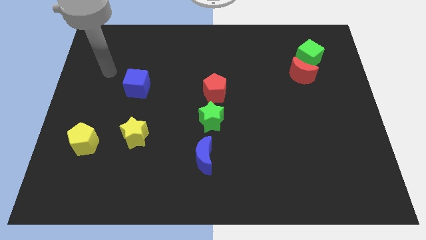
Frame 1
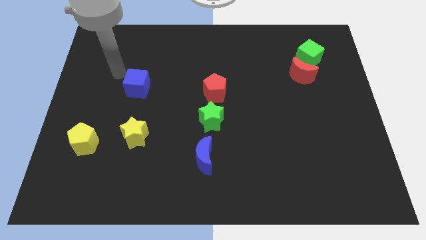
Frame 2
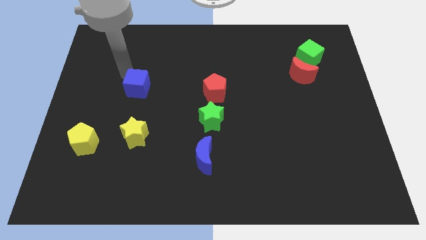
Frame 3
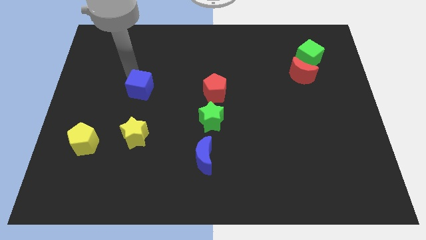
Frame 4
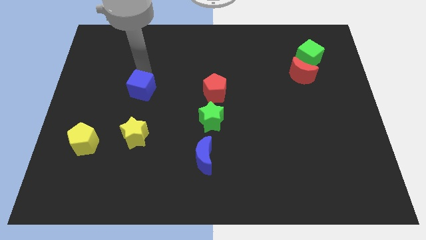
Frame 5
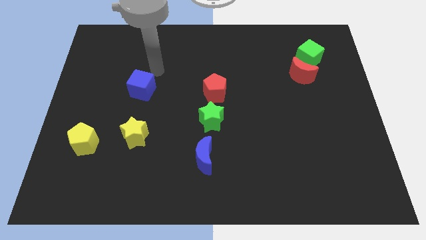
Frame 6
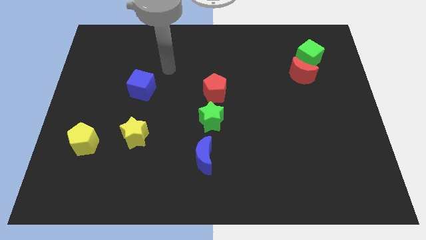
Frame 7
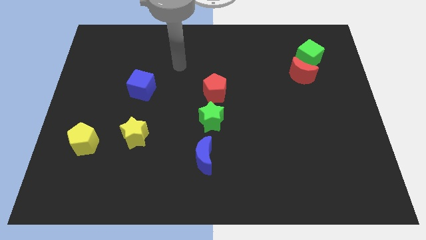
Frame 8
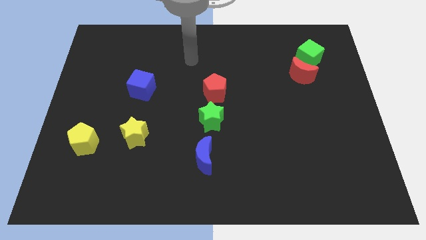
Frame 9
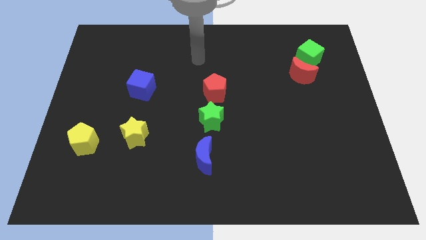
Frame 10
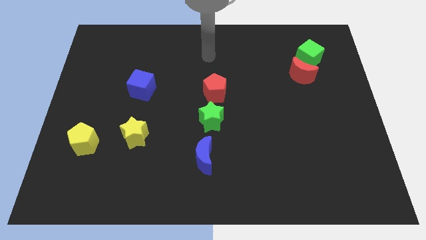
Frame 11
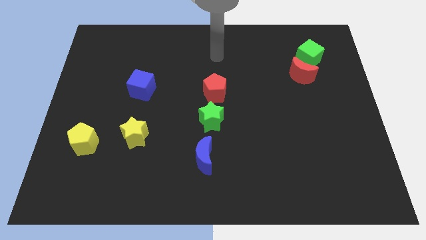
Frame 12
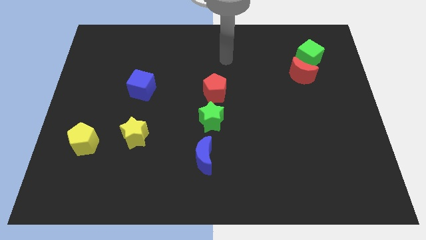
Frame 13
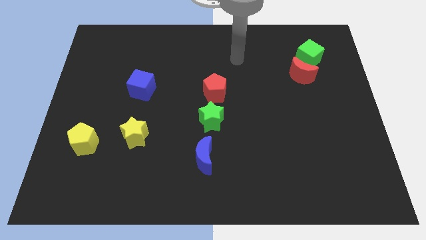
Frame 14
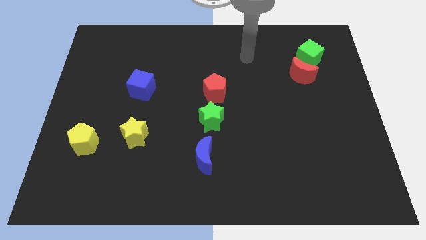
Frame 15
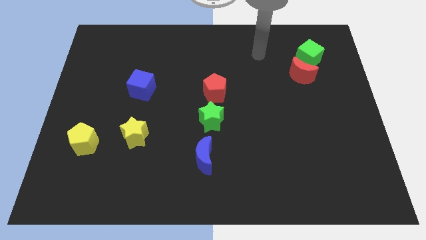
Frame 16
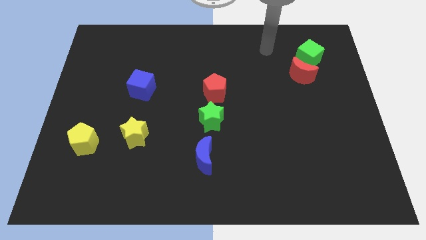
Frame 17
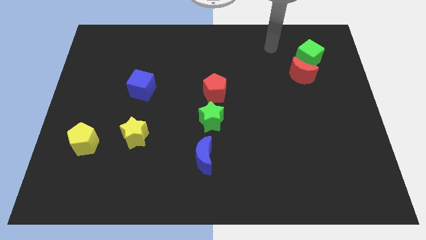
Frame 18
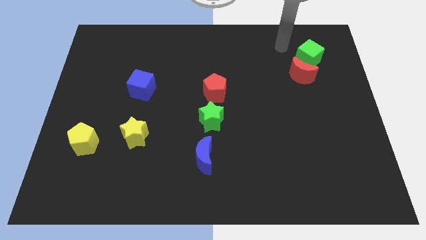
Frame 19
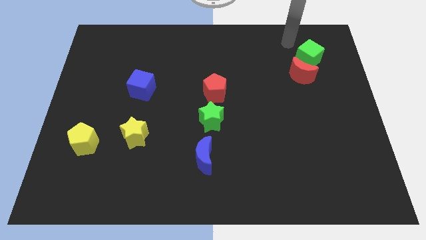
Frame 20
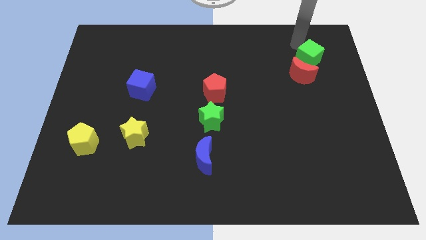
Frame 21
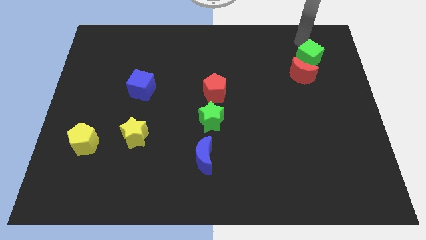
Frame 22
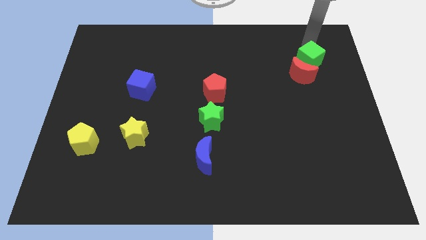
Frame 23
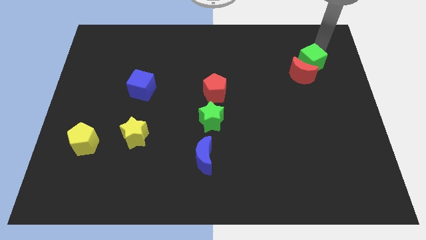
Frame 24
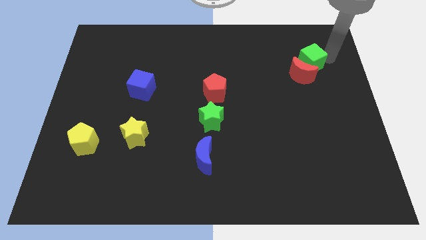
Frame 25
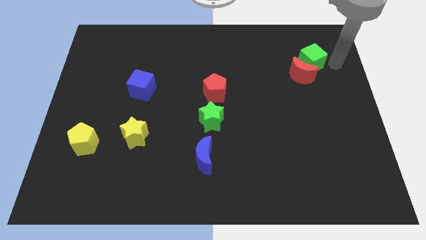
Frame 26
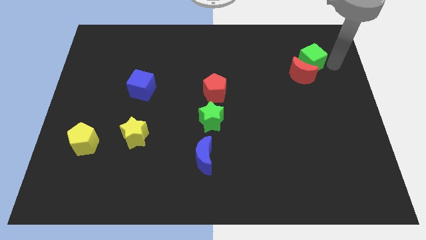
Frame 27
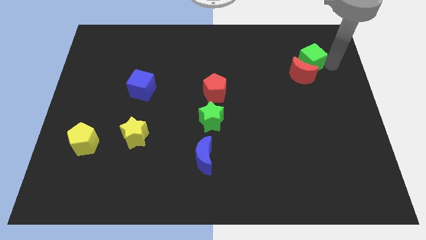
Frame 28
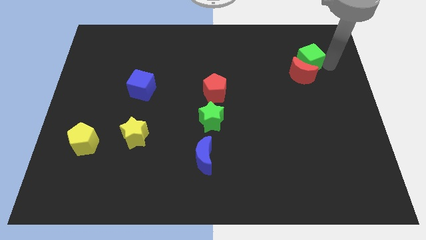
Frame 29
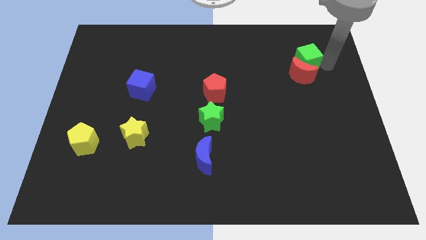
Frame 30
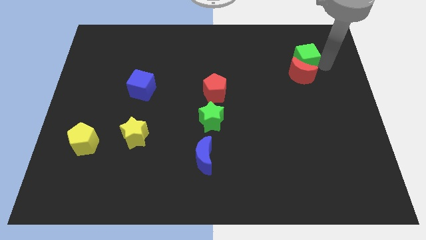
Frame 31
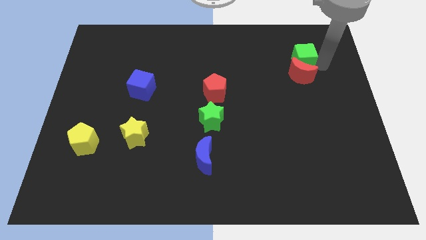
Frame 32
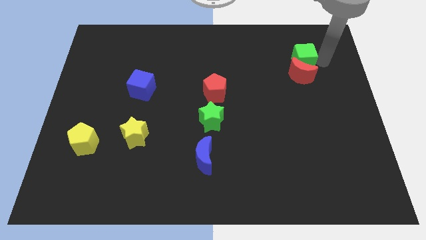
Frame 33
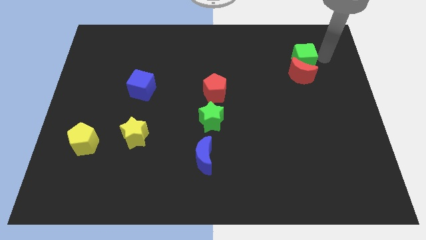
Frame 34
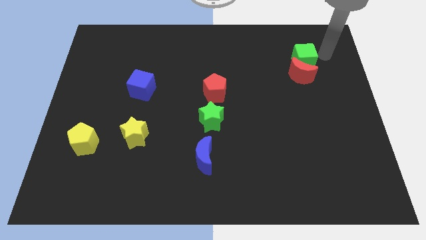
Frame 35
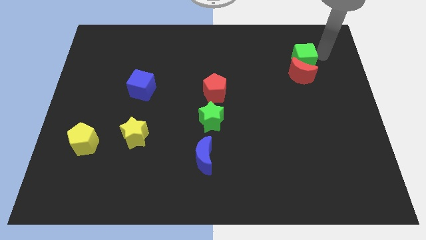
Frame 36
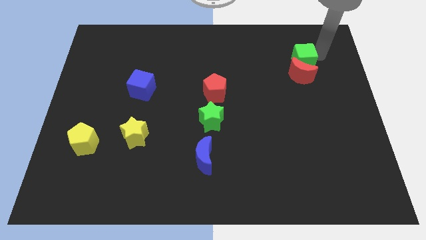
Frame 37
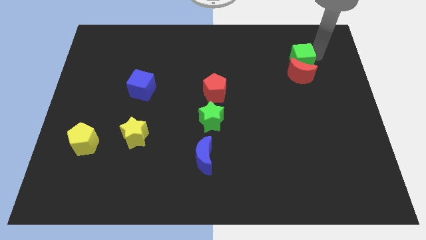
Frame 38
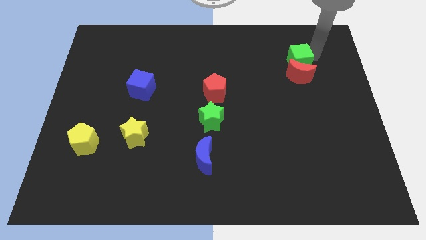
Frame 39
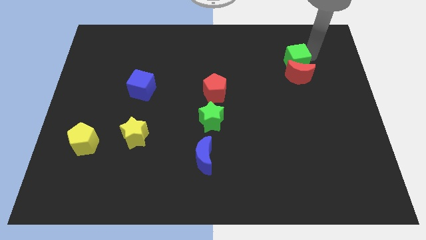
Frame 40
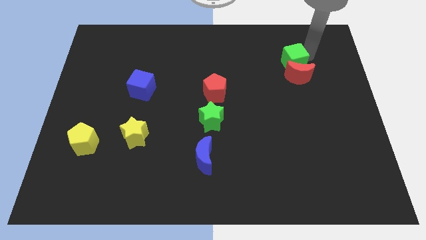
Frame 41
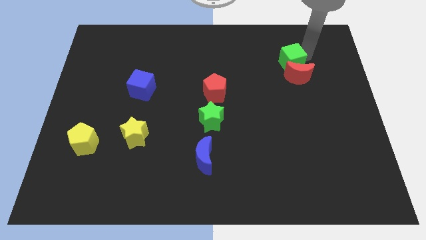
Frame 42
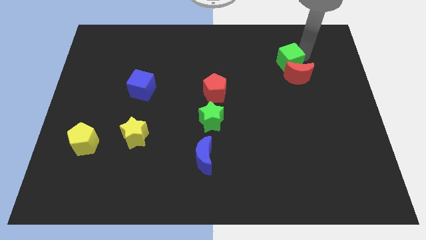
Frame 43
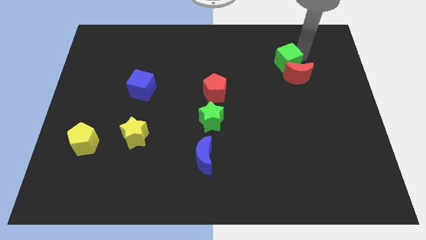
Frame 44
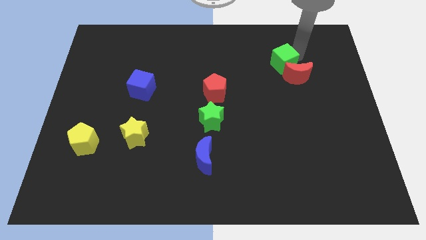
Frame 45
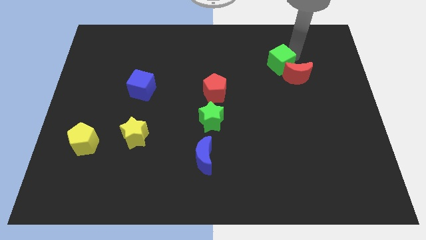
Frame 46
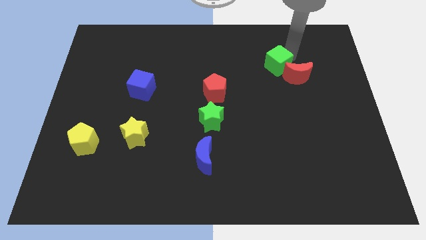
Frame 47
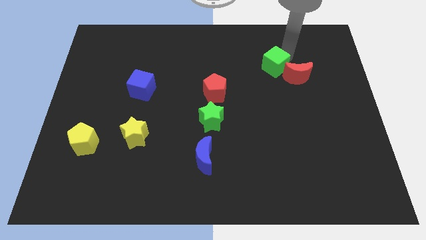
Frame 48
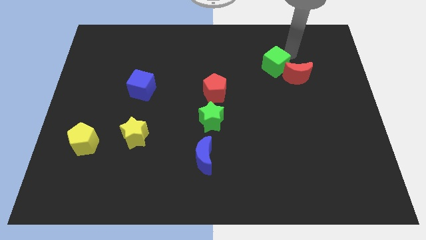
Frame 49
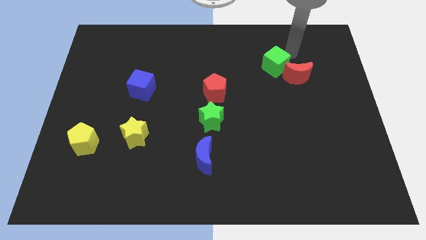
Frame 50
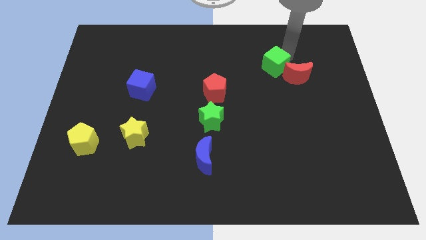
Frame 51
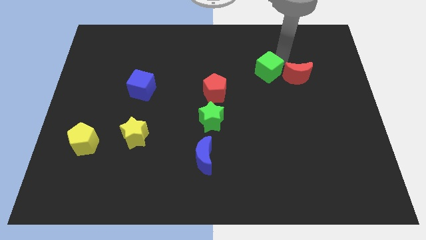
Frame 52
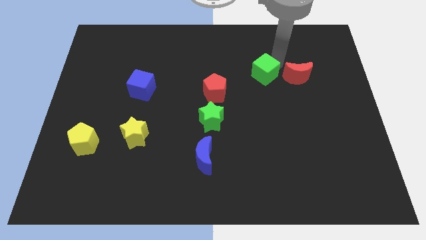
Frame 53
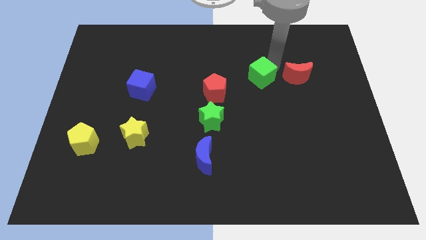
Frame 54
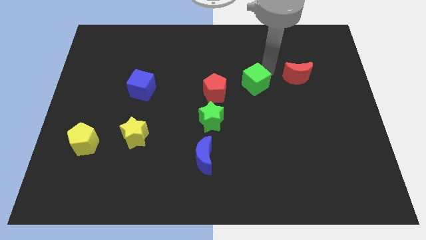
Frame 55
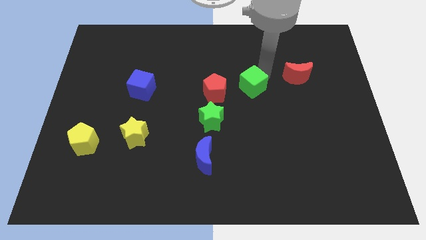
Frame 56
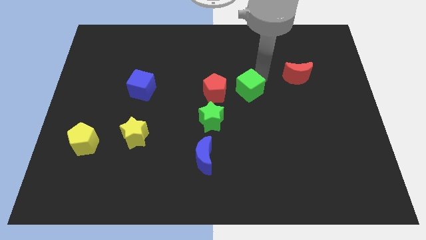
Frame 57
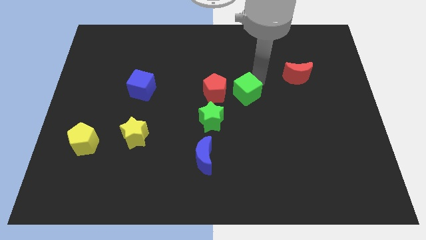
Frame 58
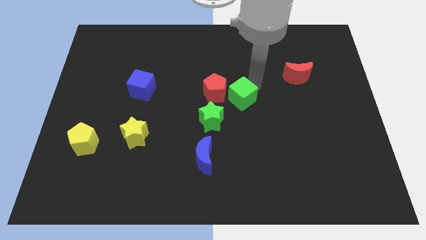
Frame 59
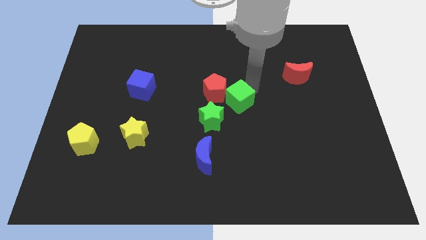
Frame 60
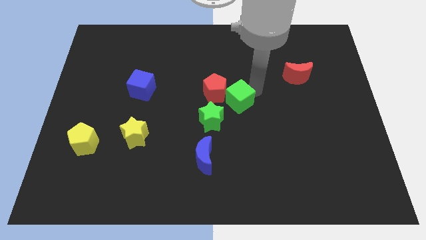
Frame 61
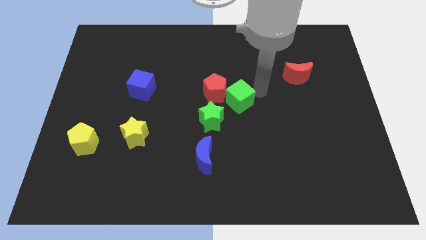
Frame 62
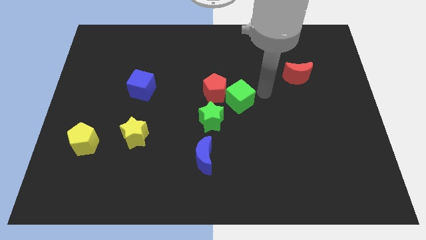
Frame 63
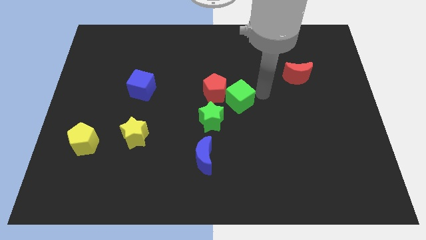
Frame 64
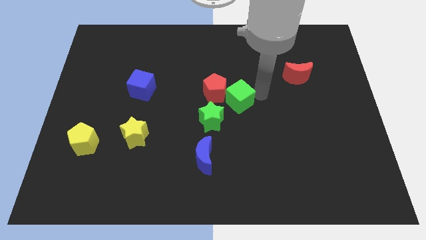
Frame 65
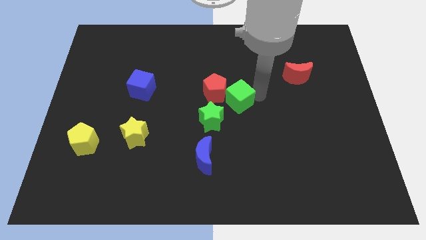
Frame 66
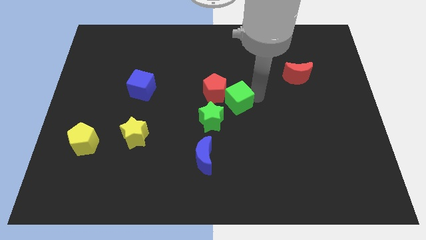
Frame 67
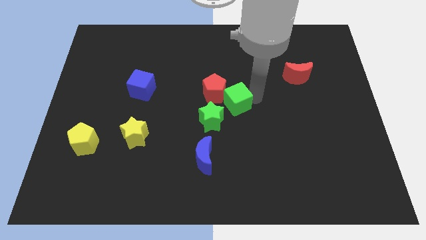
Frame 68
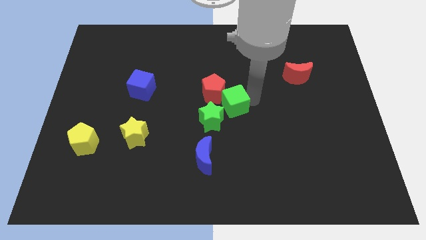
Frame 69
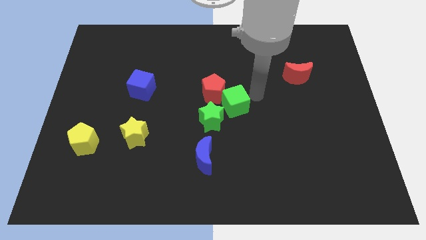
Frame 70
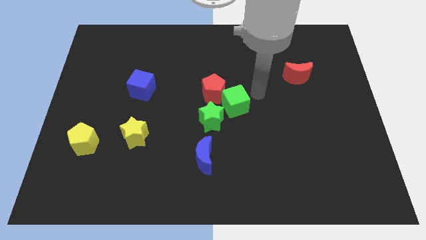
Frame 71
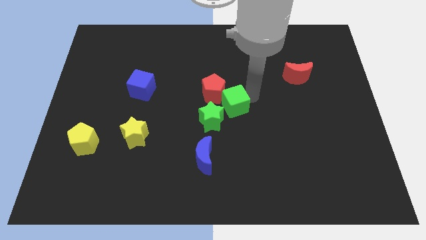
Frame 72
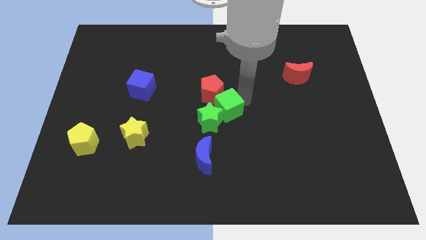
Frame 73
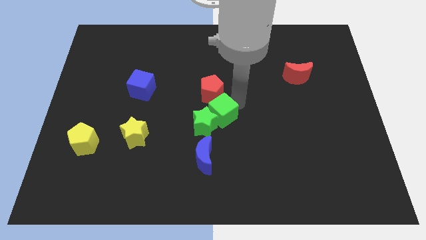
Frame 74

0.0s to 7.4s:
move the green cube to the top of the blue moon
